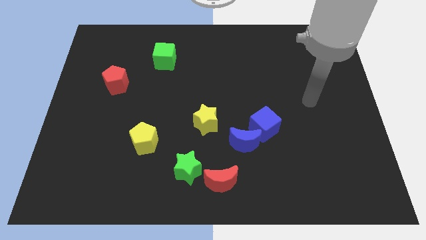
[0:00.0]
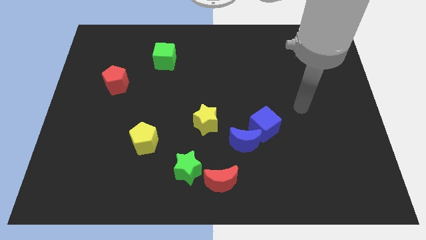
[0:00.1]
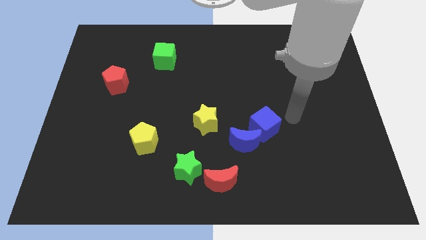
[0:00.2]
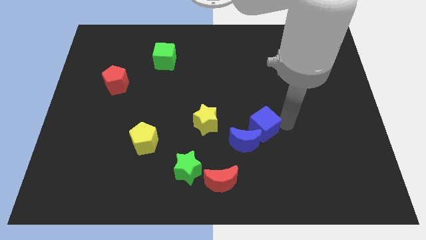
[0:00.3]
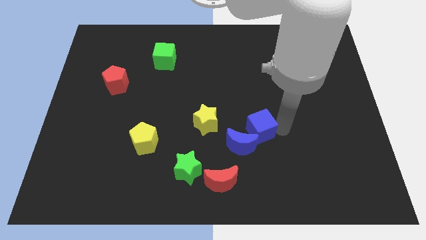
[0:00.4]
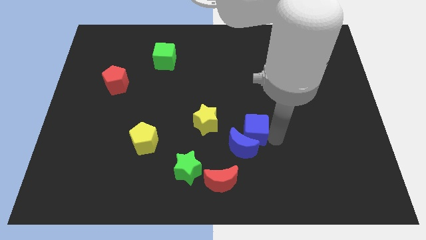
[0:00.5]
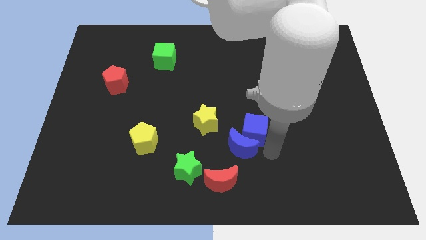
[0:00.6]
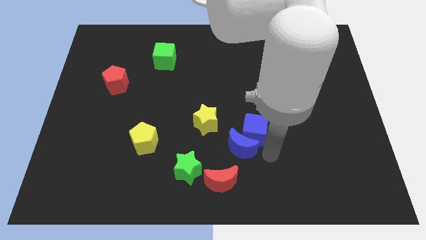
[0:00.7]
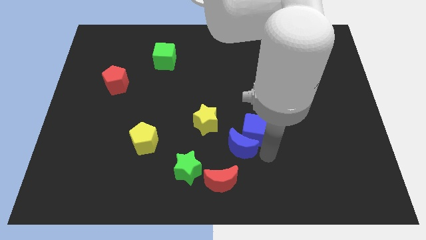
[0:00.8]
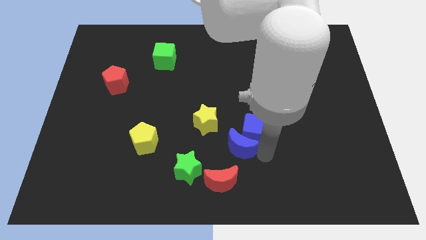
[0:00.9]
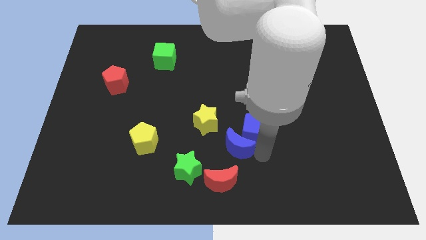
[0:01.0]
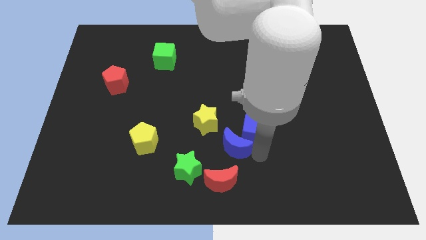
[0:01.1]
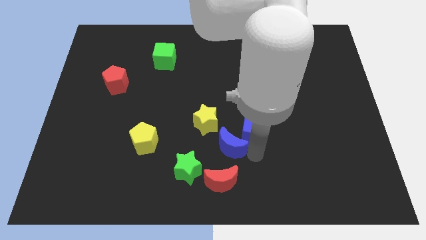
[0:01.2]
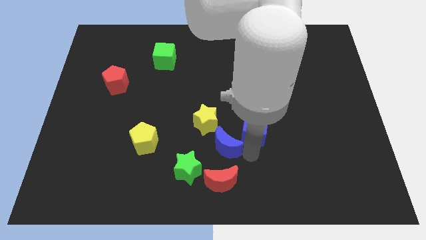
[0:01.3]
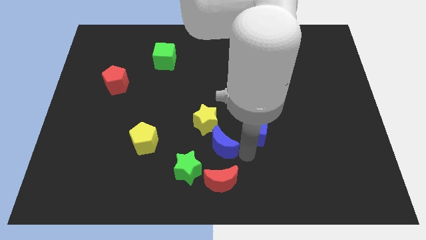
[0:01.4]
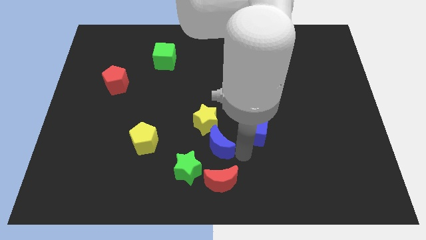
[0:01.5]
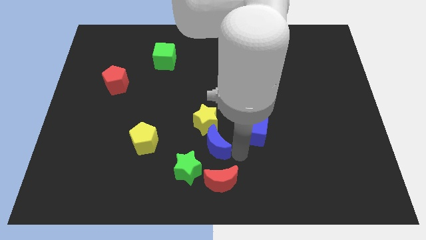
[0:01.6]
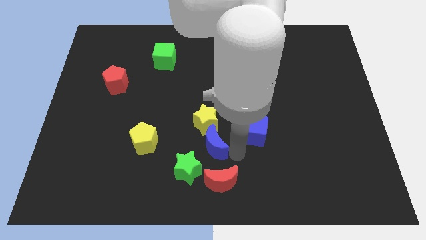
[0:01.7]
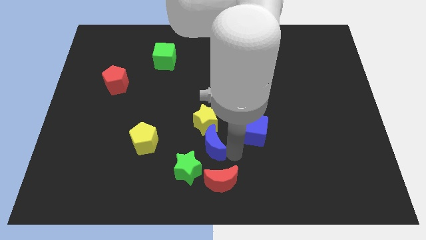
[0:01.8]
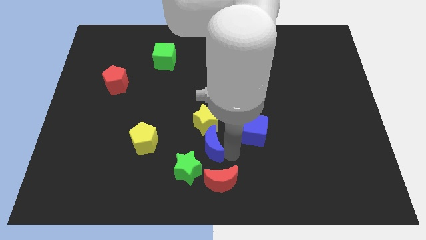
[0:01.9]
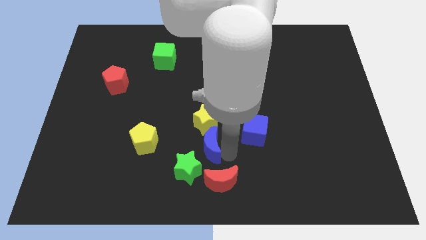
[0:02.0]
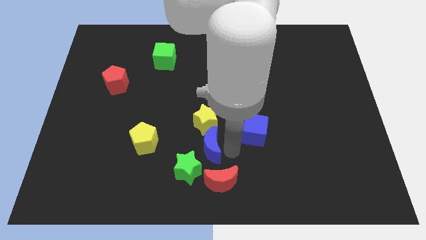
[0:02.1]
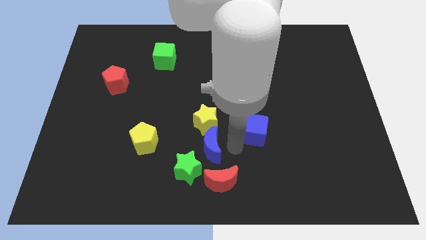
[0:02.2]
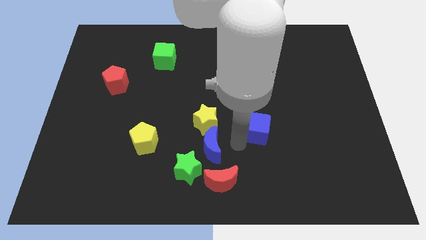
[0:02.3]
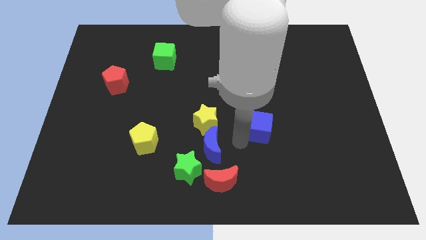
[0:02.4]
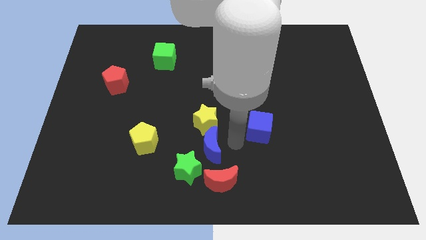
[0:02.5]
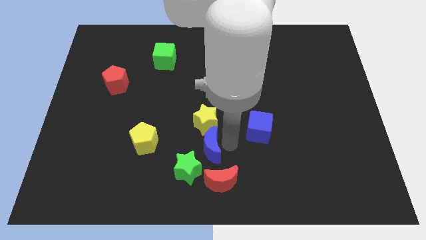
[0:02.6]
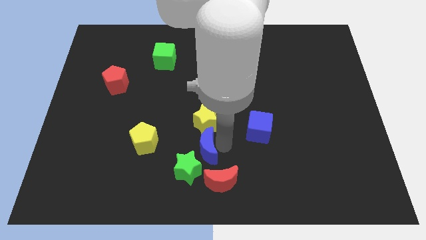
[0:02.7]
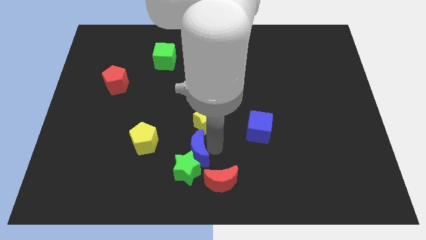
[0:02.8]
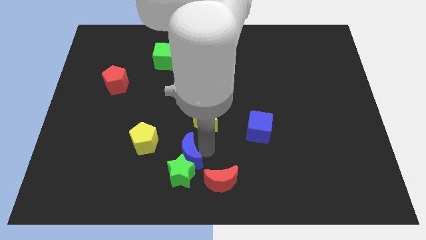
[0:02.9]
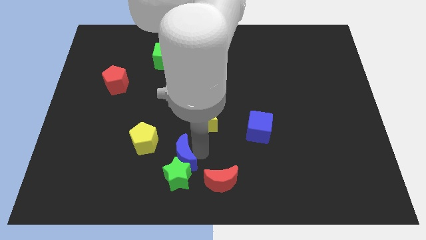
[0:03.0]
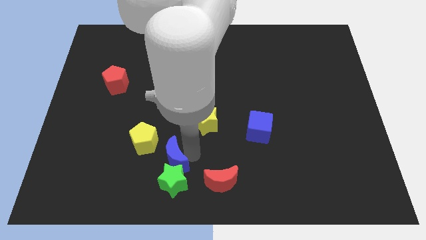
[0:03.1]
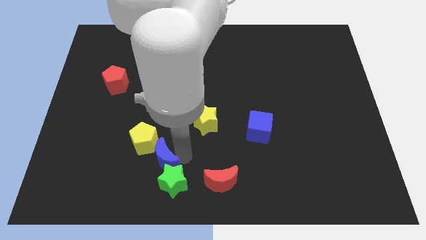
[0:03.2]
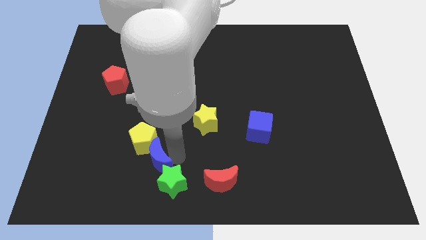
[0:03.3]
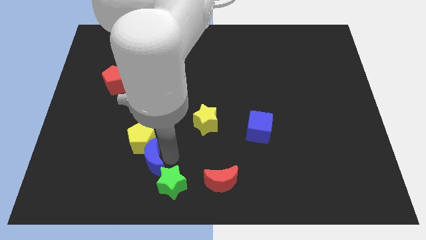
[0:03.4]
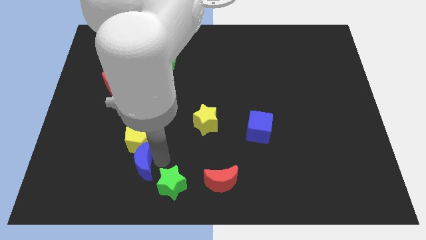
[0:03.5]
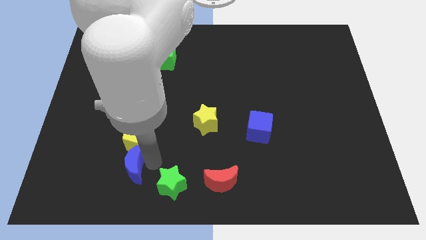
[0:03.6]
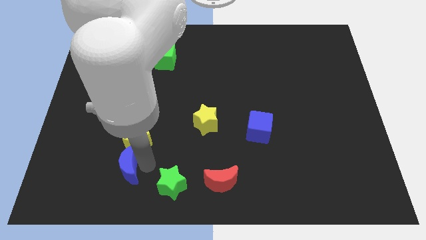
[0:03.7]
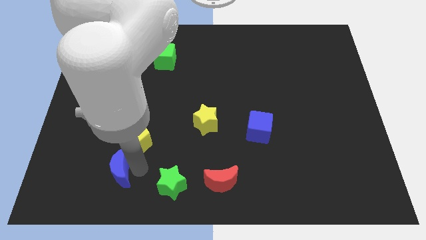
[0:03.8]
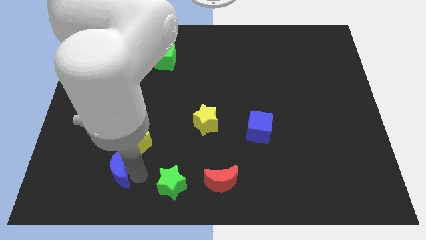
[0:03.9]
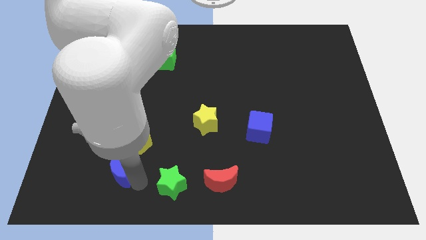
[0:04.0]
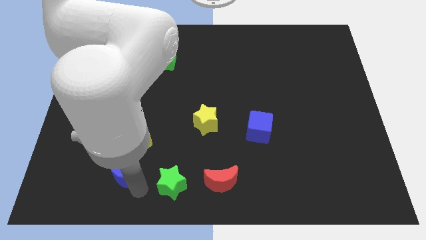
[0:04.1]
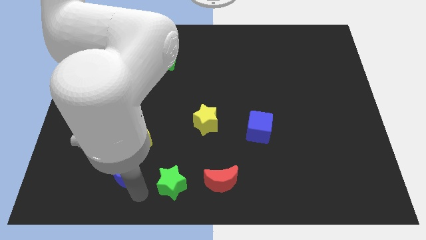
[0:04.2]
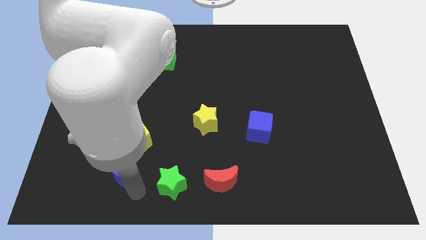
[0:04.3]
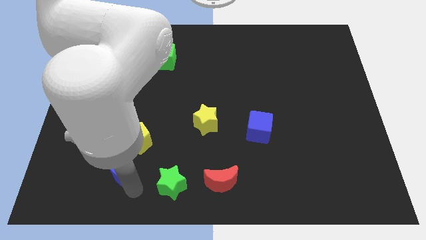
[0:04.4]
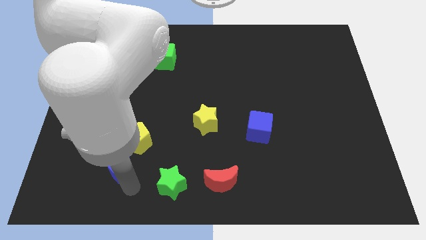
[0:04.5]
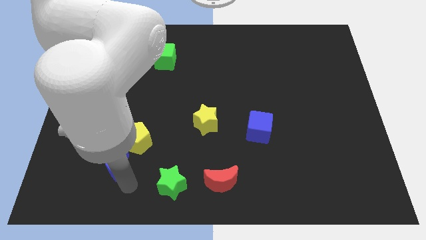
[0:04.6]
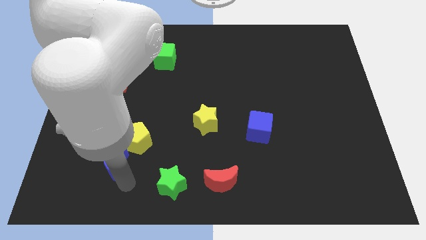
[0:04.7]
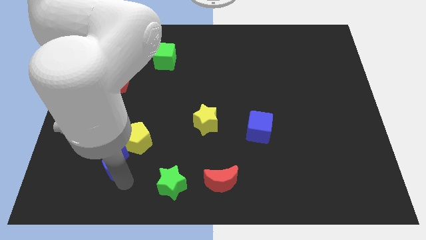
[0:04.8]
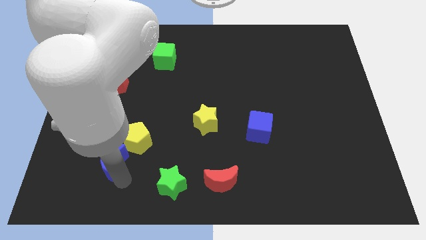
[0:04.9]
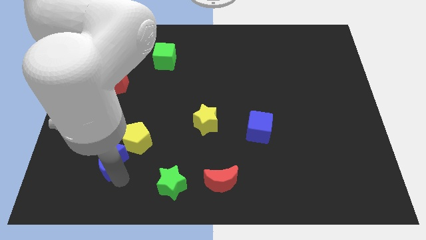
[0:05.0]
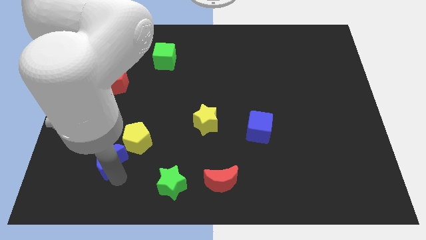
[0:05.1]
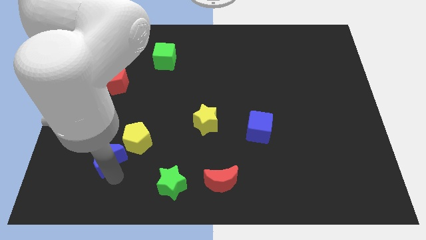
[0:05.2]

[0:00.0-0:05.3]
move the blue moon to the left side of the yellow pentagon

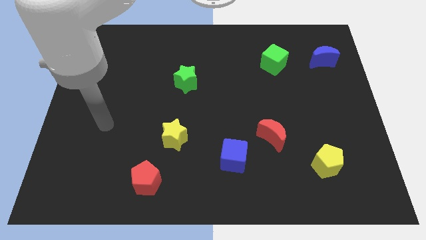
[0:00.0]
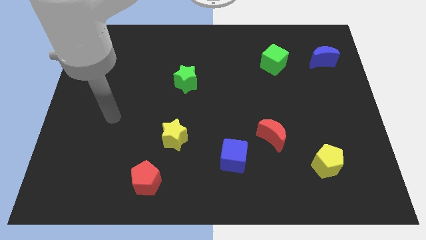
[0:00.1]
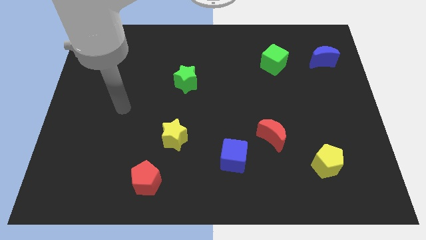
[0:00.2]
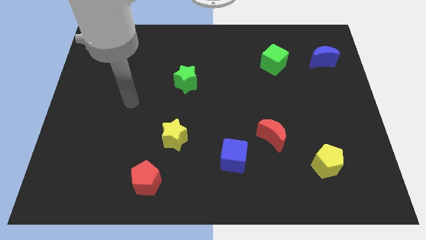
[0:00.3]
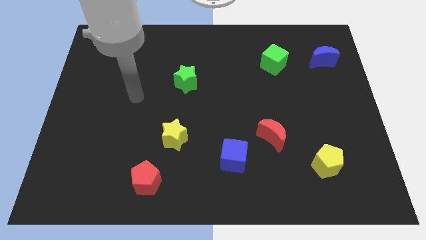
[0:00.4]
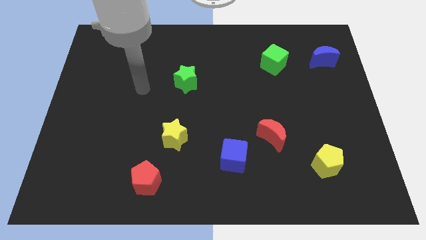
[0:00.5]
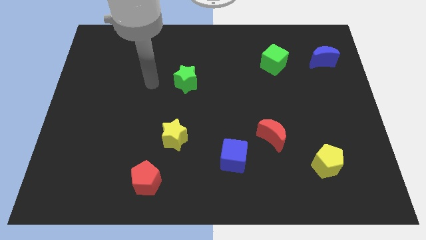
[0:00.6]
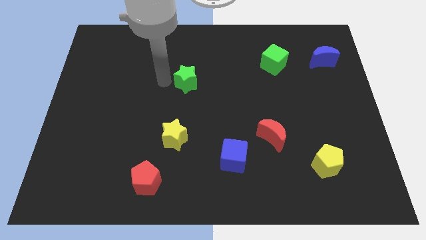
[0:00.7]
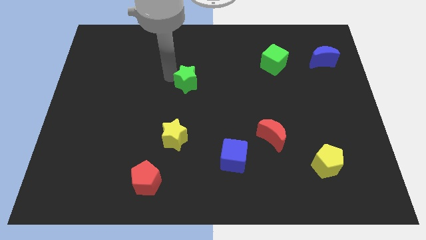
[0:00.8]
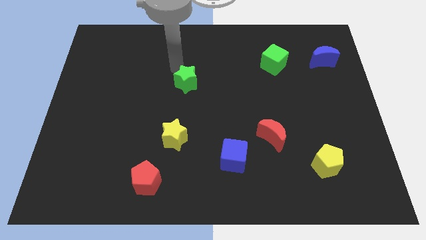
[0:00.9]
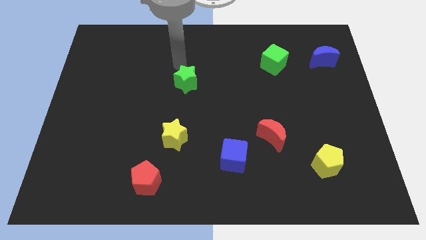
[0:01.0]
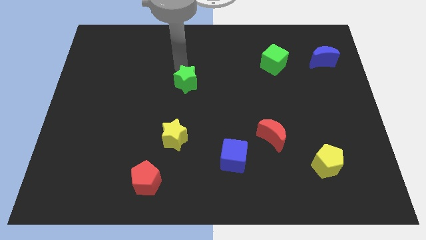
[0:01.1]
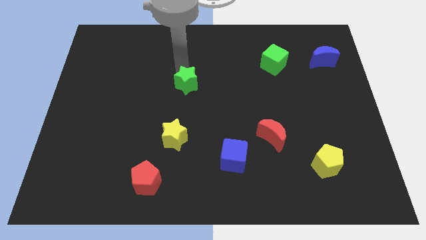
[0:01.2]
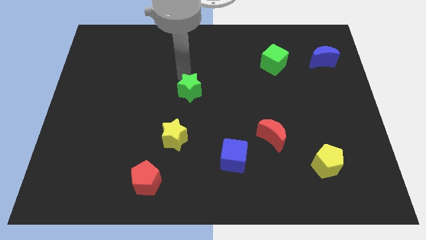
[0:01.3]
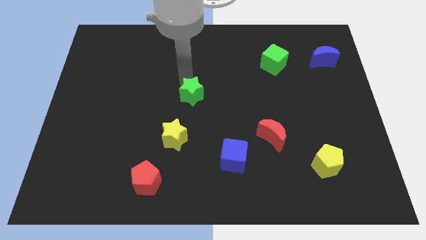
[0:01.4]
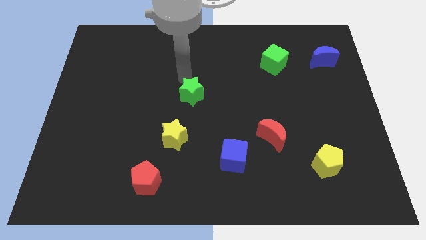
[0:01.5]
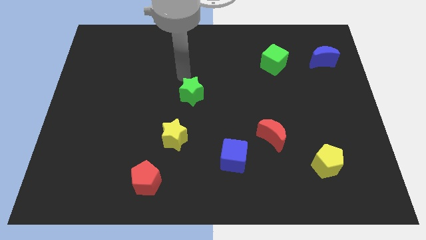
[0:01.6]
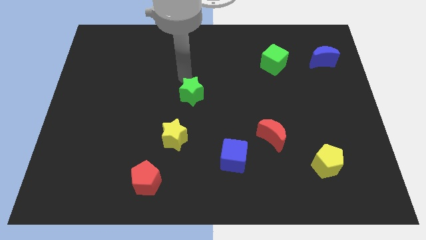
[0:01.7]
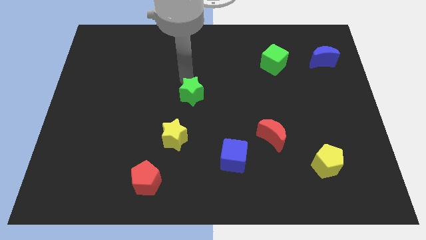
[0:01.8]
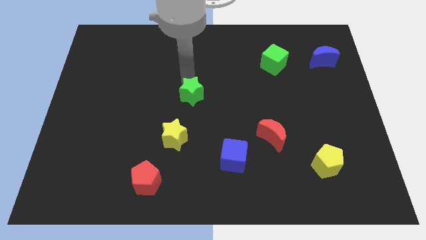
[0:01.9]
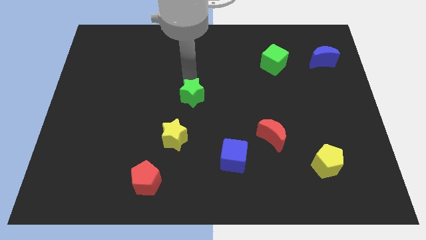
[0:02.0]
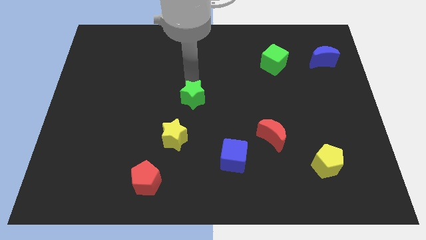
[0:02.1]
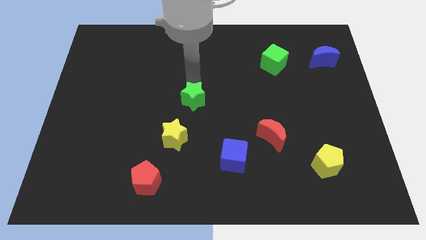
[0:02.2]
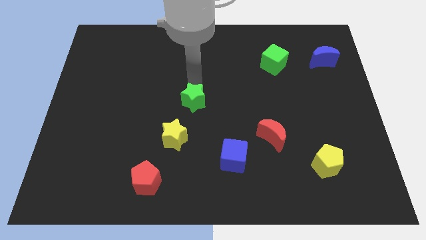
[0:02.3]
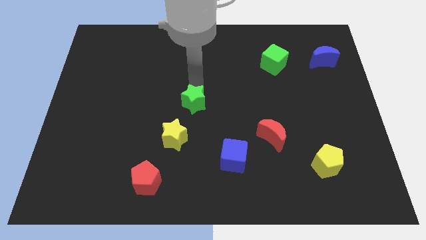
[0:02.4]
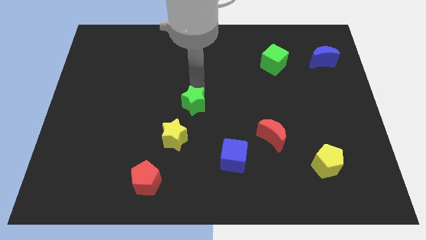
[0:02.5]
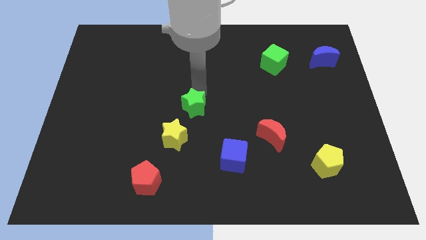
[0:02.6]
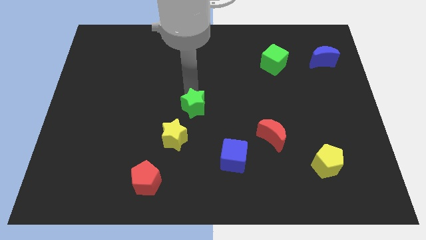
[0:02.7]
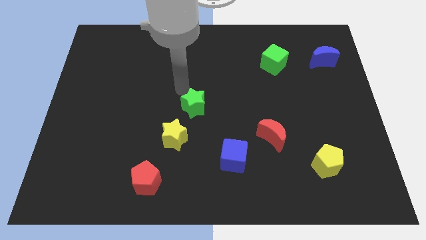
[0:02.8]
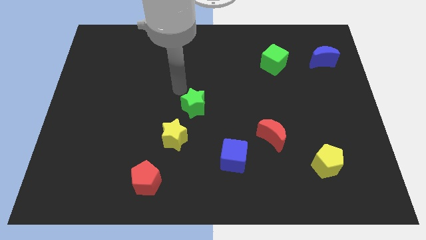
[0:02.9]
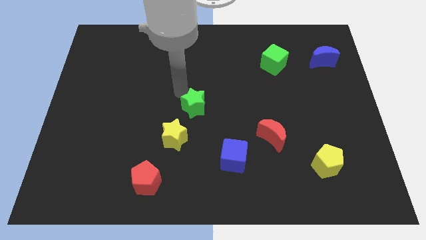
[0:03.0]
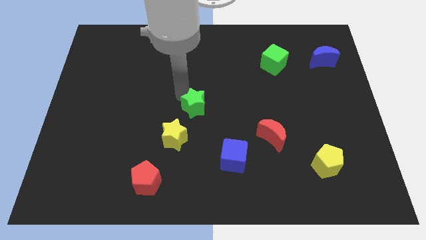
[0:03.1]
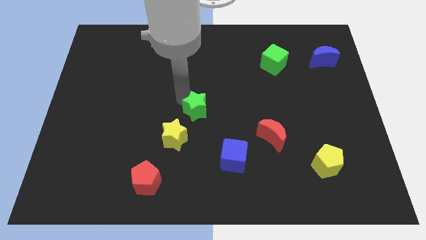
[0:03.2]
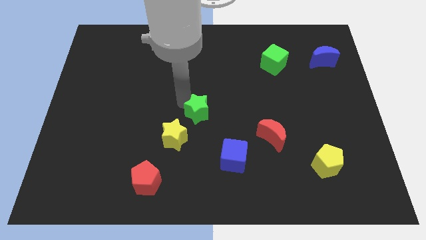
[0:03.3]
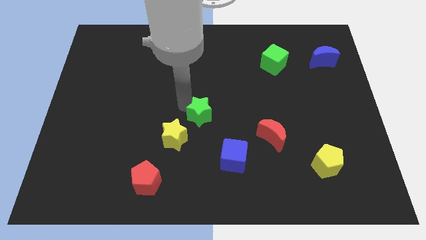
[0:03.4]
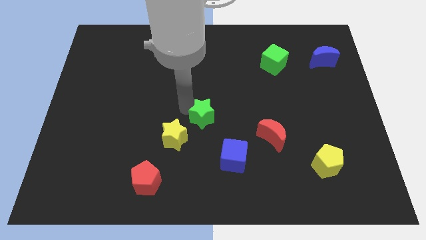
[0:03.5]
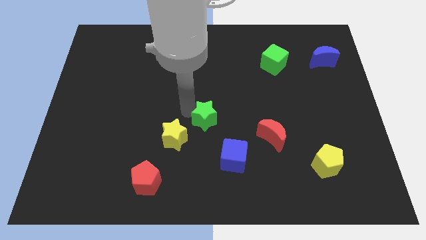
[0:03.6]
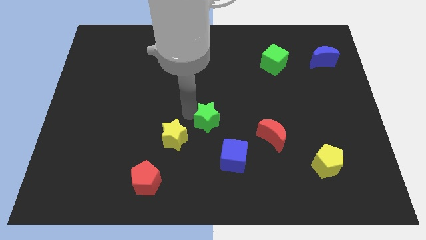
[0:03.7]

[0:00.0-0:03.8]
put the green star to the right of the yellow star
